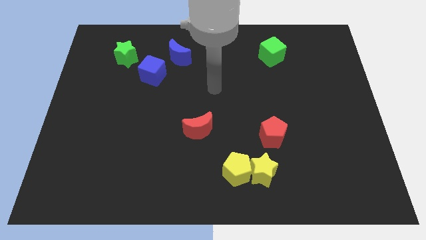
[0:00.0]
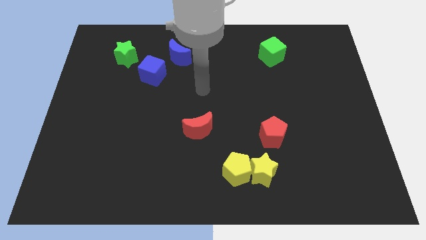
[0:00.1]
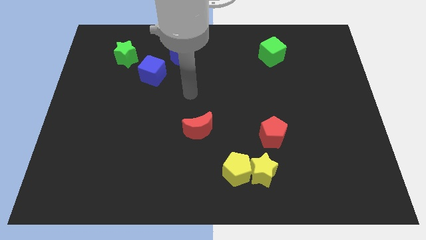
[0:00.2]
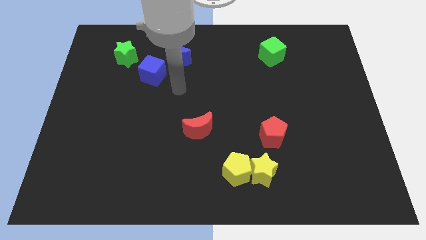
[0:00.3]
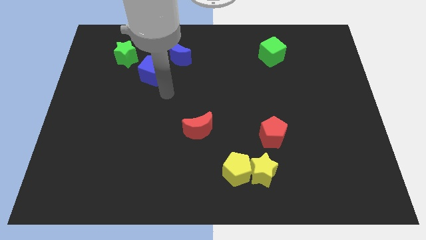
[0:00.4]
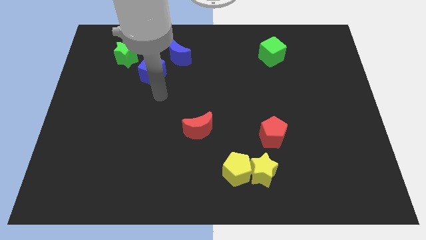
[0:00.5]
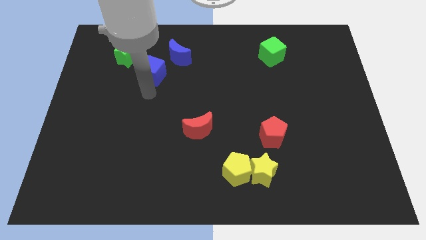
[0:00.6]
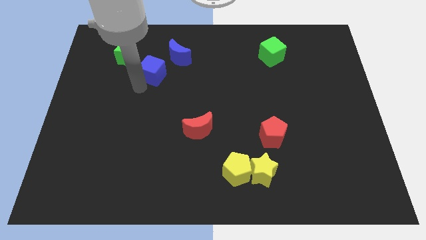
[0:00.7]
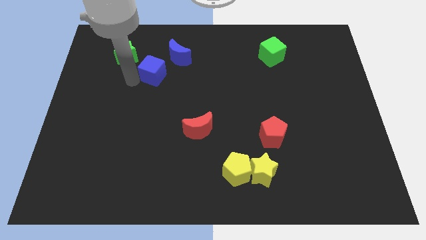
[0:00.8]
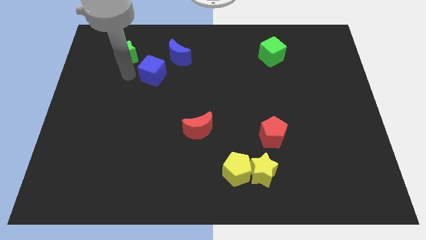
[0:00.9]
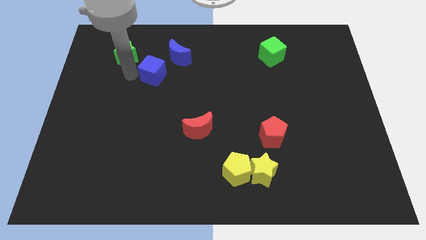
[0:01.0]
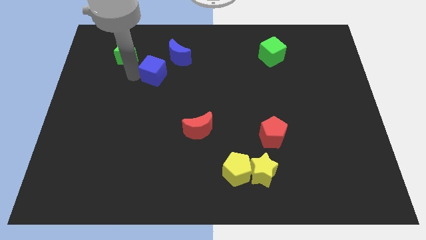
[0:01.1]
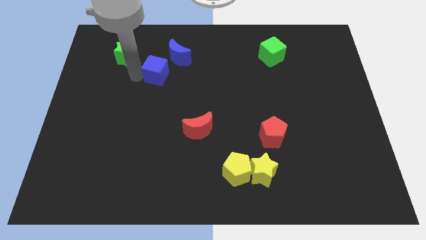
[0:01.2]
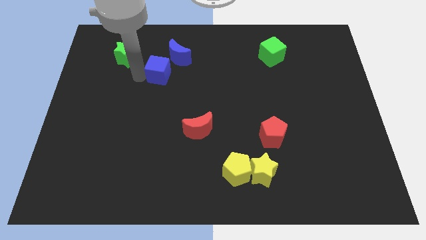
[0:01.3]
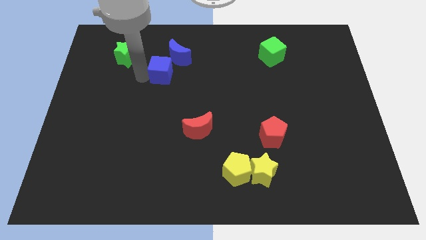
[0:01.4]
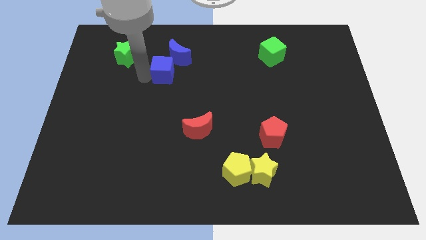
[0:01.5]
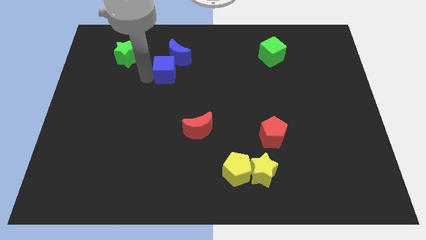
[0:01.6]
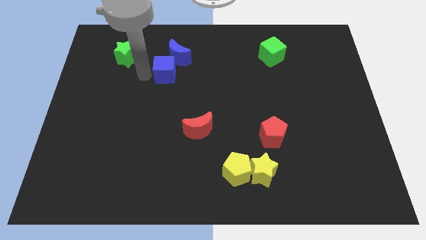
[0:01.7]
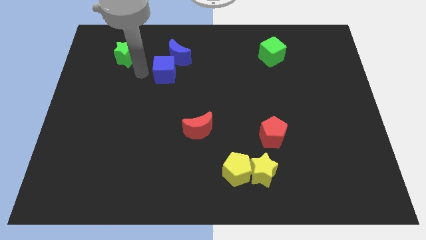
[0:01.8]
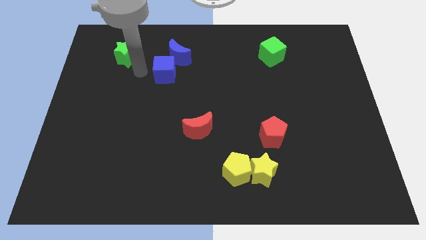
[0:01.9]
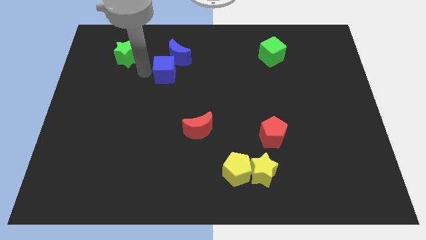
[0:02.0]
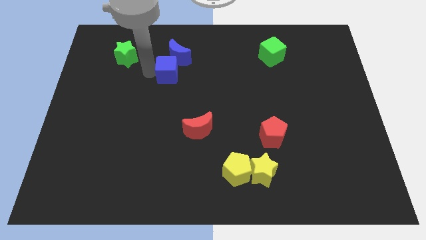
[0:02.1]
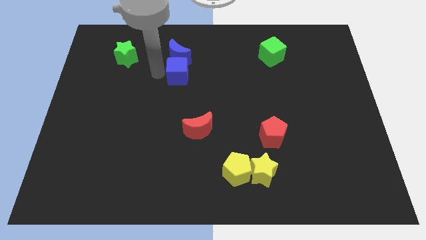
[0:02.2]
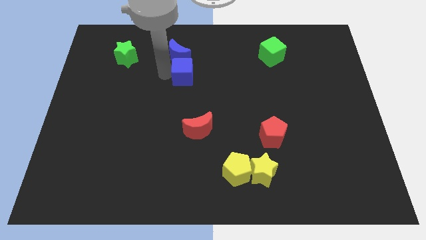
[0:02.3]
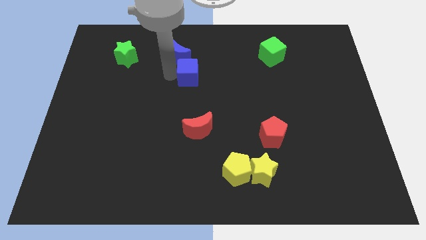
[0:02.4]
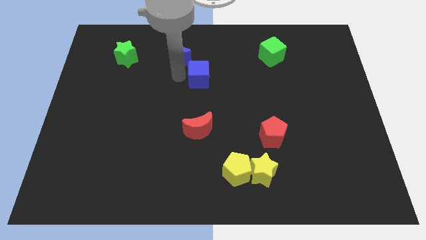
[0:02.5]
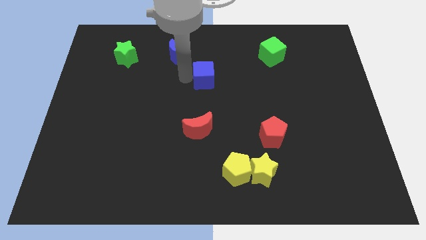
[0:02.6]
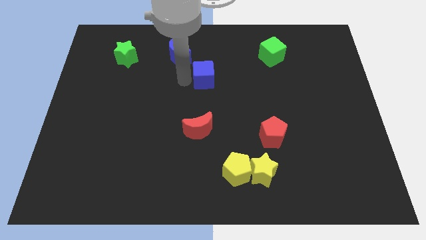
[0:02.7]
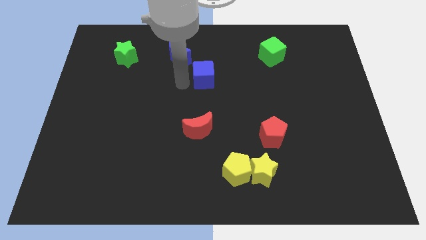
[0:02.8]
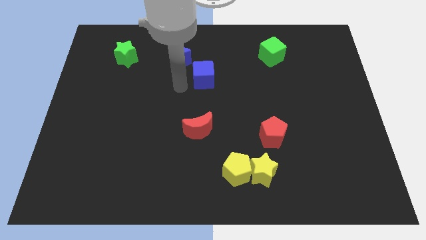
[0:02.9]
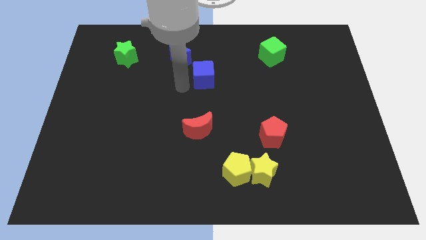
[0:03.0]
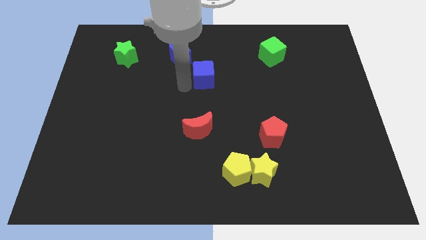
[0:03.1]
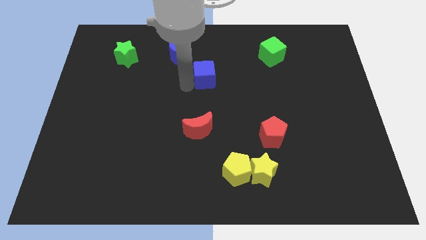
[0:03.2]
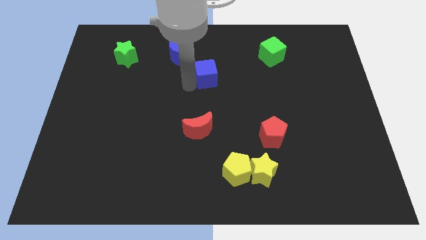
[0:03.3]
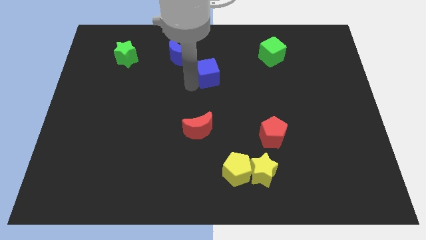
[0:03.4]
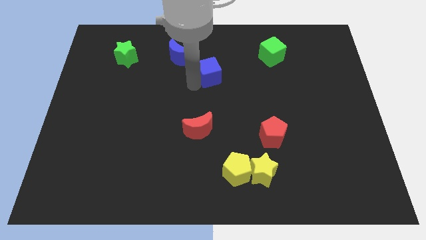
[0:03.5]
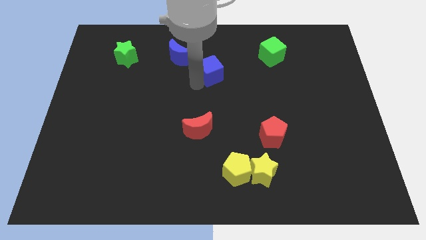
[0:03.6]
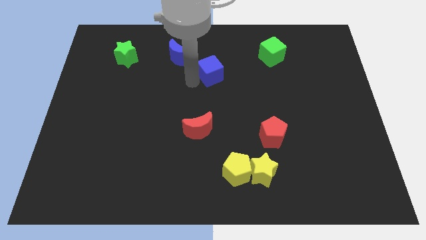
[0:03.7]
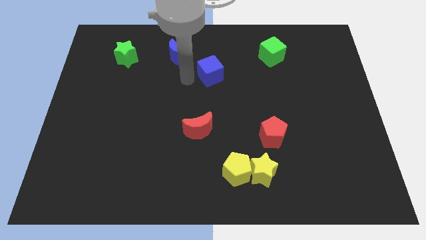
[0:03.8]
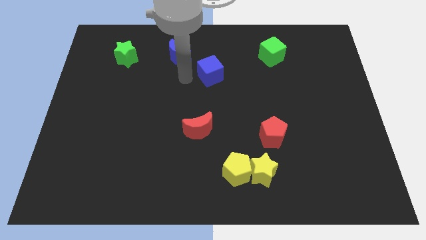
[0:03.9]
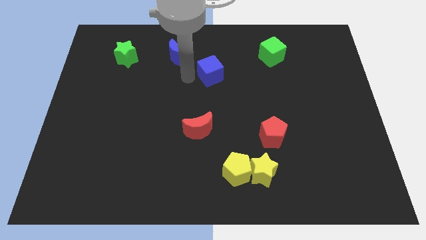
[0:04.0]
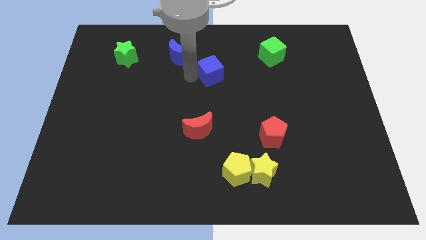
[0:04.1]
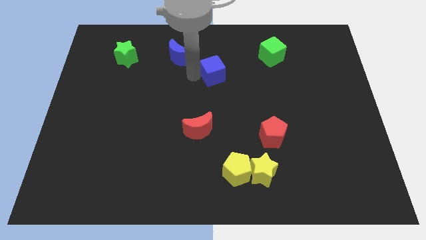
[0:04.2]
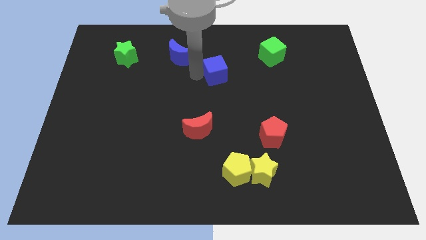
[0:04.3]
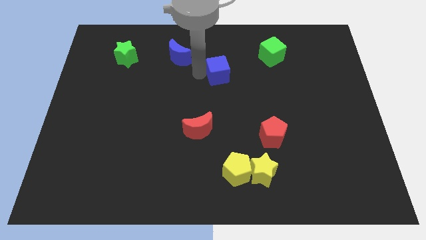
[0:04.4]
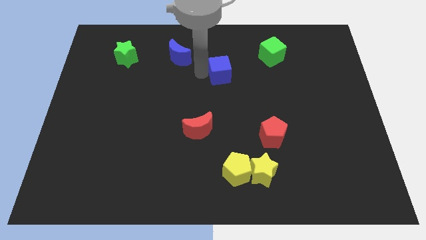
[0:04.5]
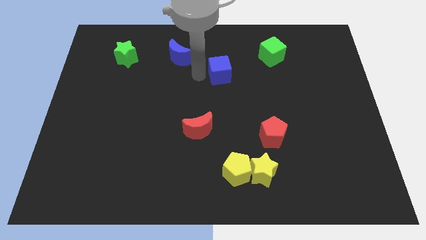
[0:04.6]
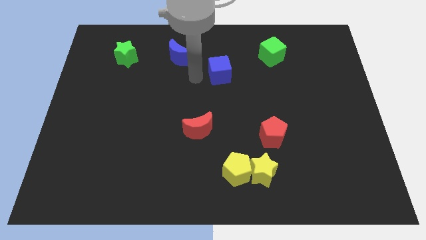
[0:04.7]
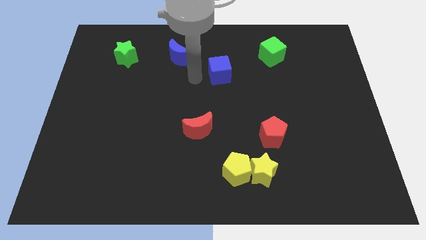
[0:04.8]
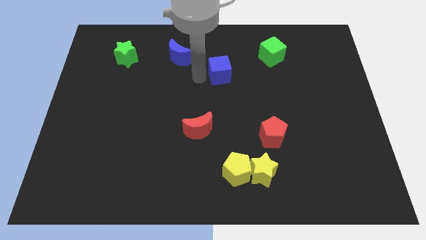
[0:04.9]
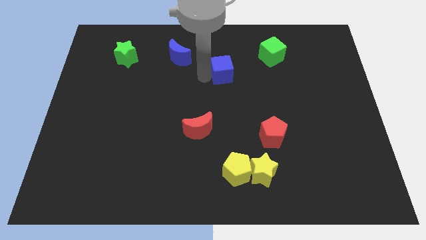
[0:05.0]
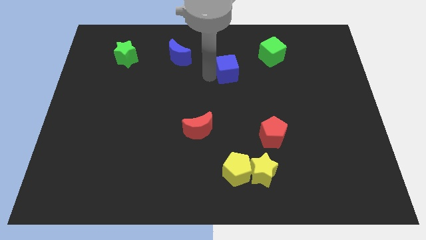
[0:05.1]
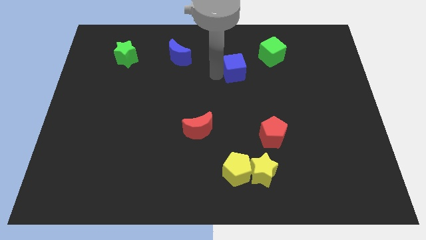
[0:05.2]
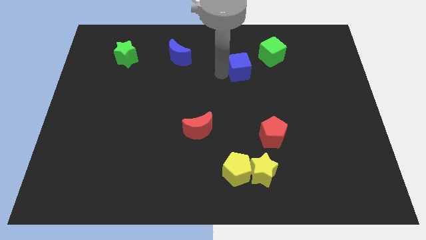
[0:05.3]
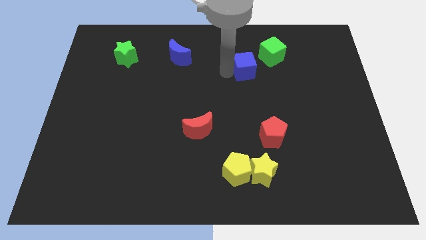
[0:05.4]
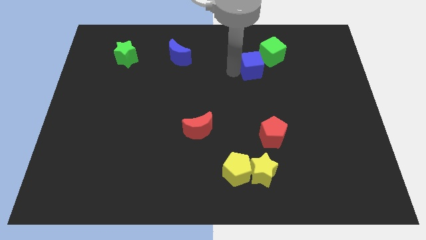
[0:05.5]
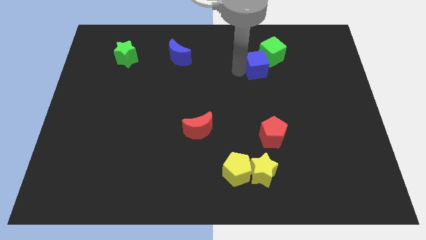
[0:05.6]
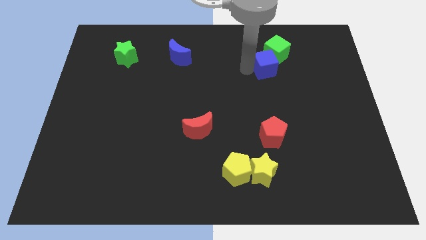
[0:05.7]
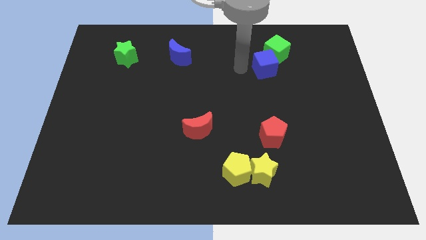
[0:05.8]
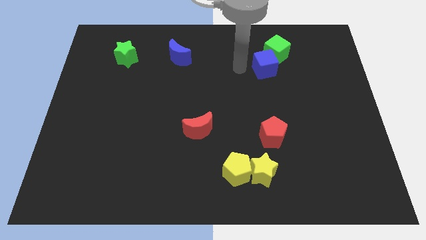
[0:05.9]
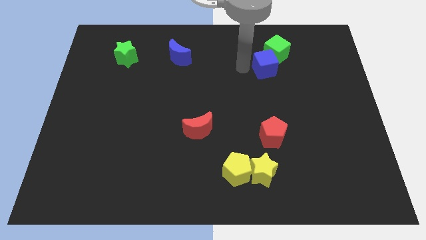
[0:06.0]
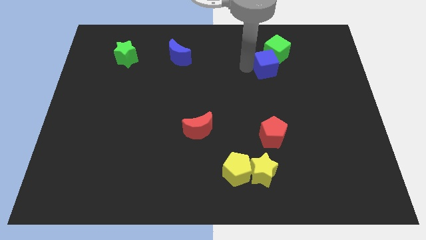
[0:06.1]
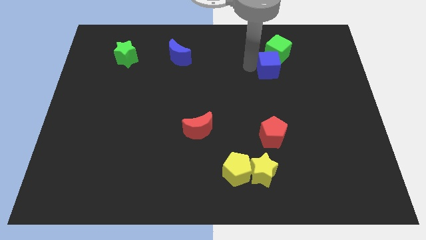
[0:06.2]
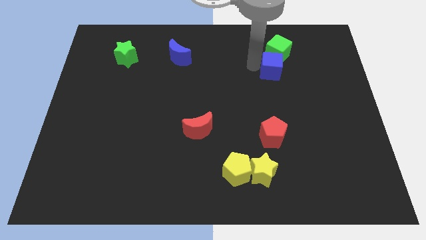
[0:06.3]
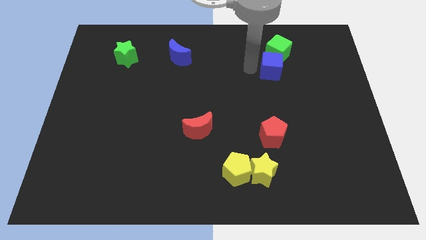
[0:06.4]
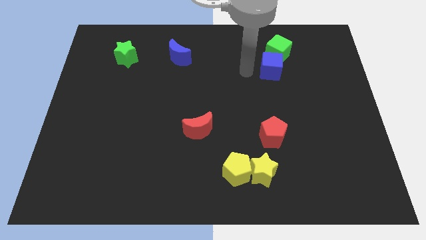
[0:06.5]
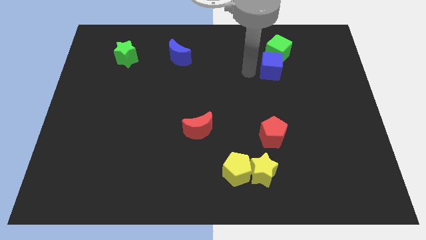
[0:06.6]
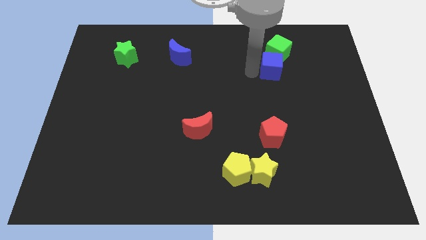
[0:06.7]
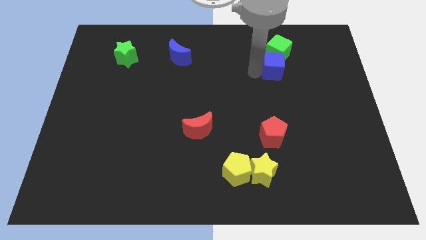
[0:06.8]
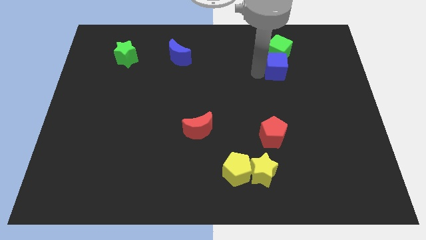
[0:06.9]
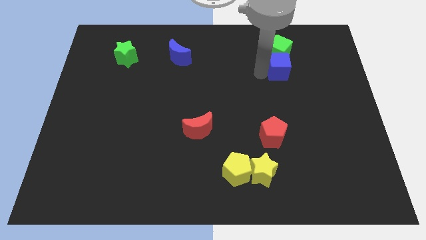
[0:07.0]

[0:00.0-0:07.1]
put the blue cube diagonally down and to the right of the green cube
